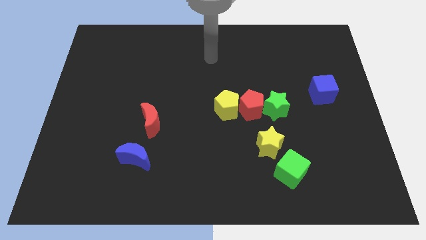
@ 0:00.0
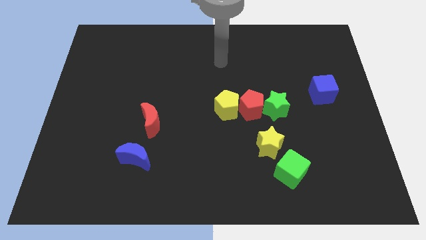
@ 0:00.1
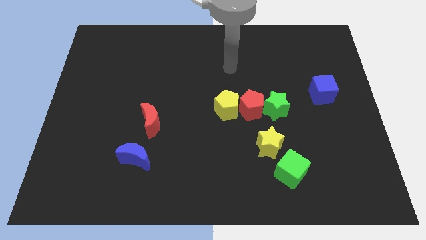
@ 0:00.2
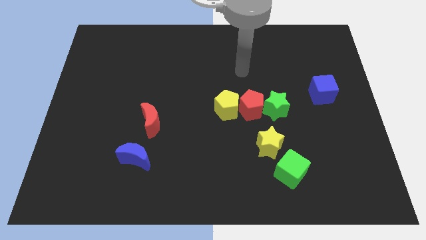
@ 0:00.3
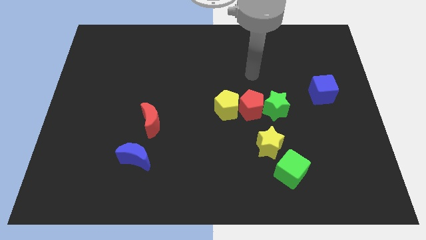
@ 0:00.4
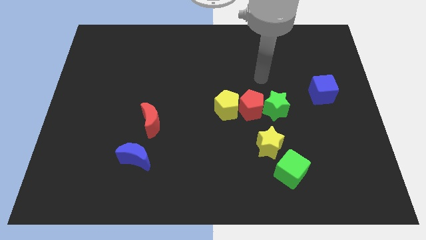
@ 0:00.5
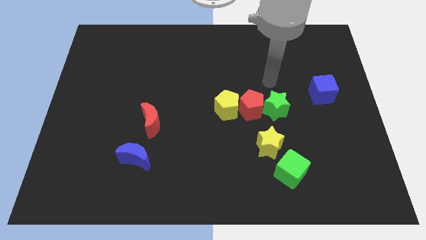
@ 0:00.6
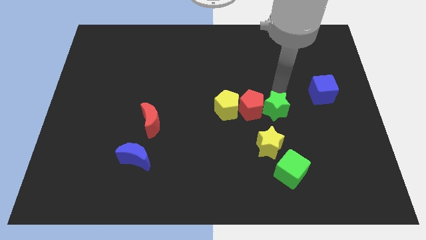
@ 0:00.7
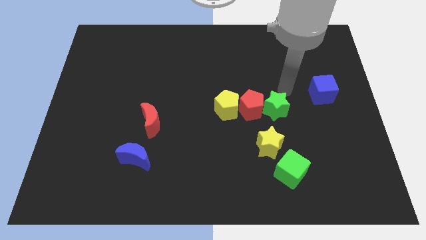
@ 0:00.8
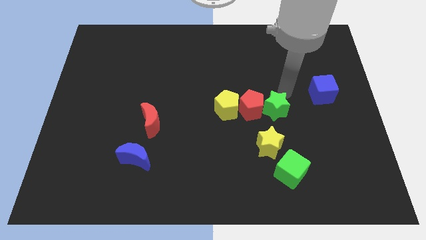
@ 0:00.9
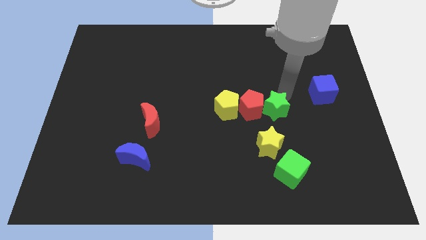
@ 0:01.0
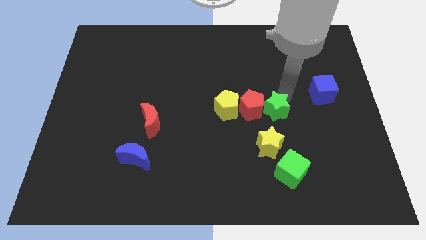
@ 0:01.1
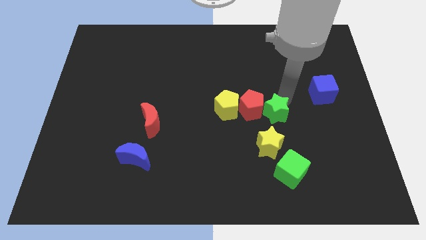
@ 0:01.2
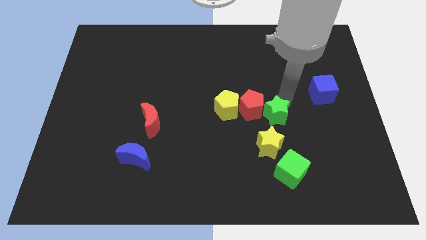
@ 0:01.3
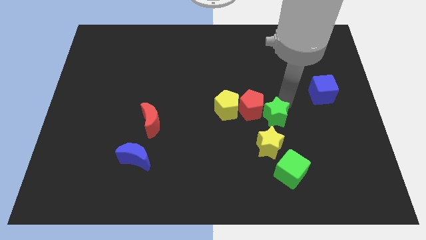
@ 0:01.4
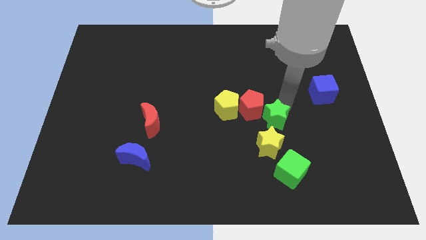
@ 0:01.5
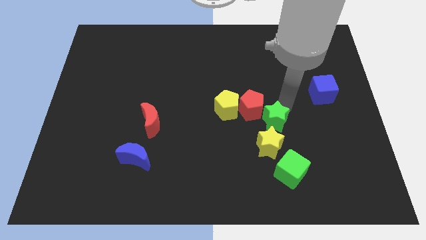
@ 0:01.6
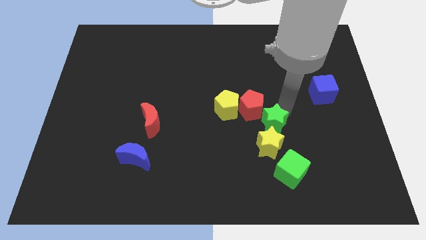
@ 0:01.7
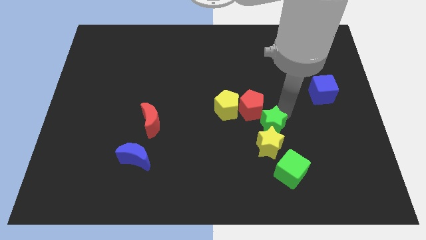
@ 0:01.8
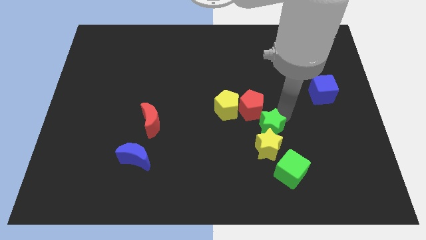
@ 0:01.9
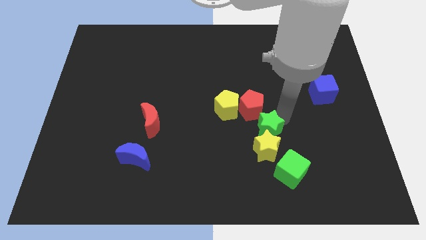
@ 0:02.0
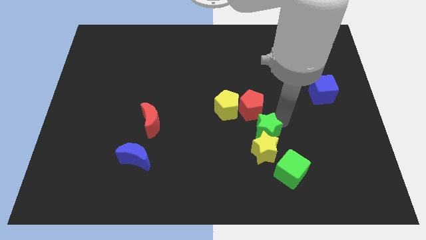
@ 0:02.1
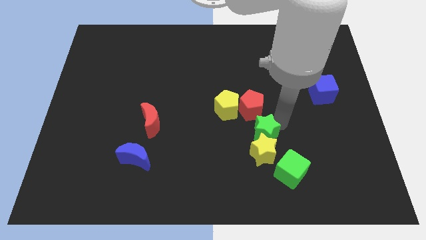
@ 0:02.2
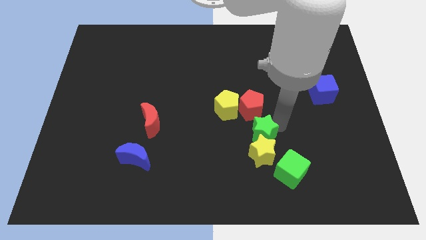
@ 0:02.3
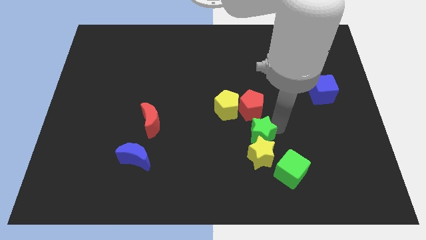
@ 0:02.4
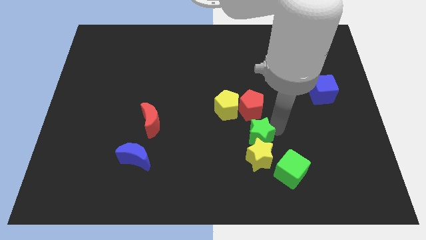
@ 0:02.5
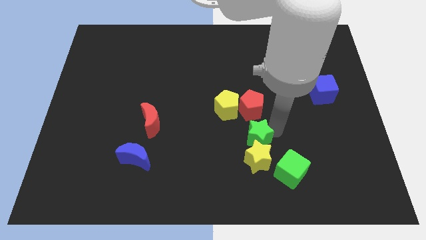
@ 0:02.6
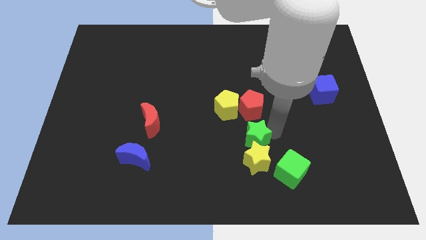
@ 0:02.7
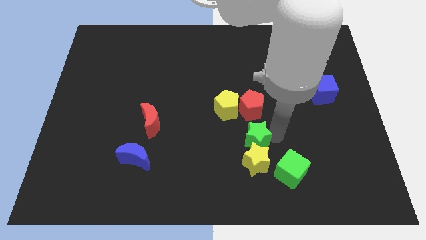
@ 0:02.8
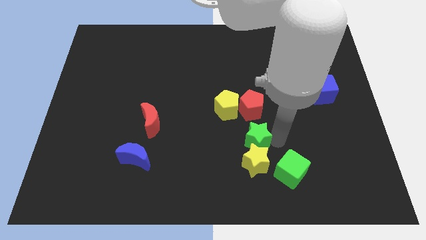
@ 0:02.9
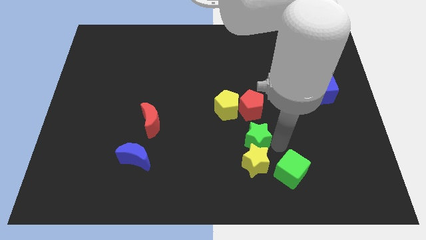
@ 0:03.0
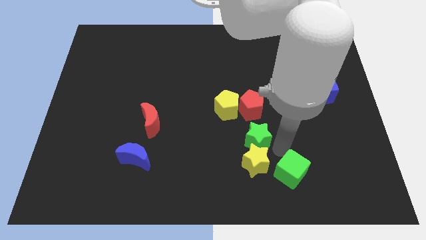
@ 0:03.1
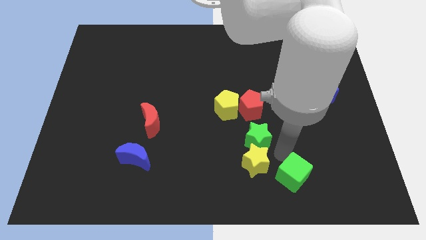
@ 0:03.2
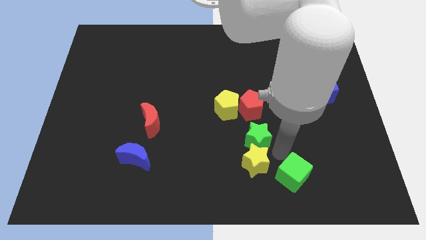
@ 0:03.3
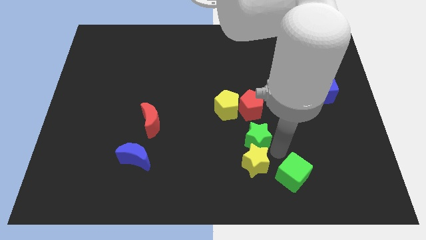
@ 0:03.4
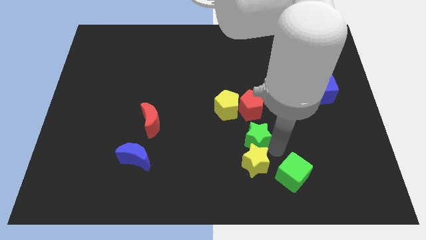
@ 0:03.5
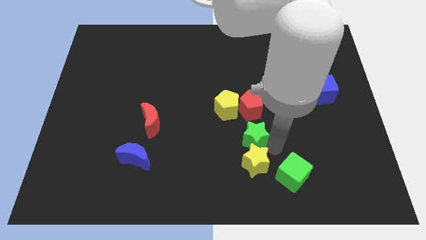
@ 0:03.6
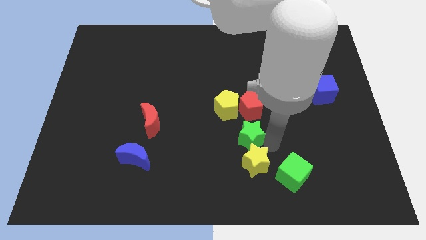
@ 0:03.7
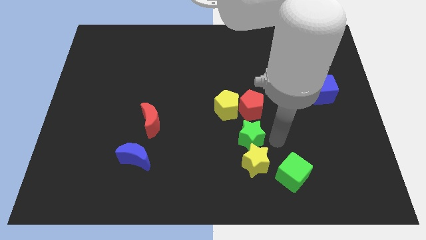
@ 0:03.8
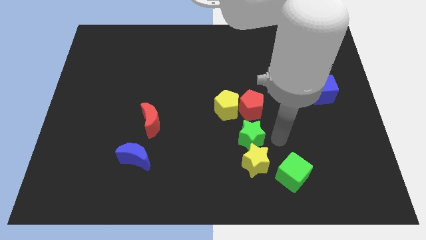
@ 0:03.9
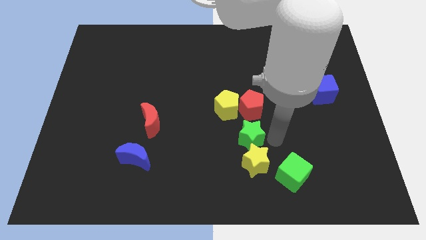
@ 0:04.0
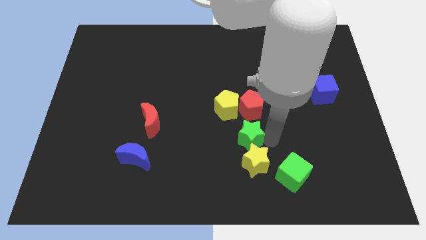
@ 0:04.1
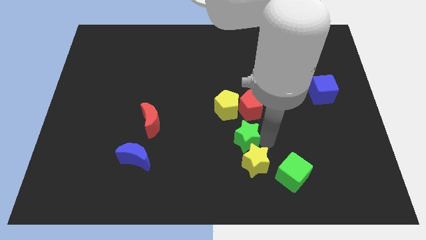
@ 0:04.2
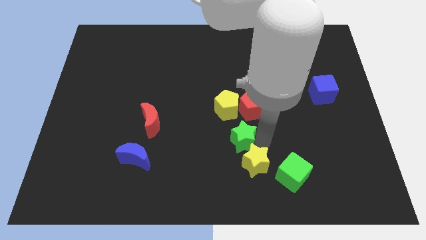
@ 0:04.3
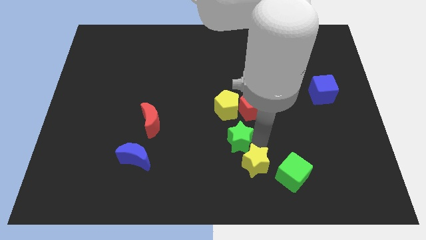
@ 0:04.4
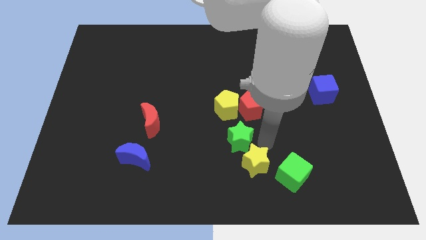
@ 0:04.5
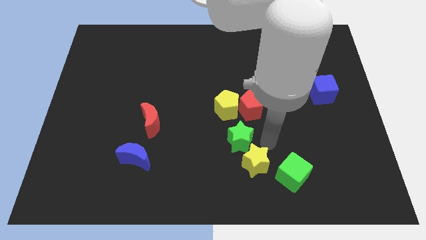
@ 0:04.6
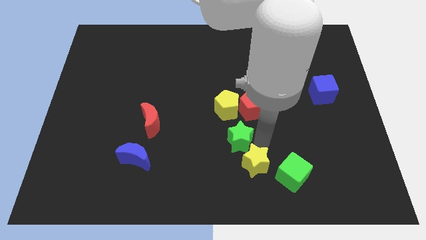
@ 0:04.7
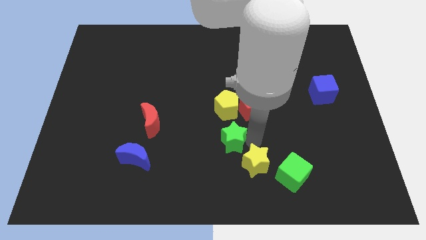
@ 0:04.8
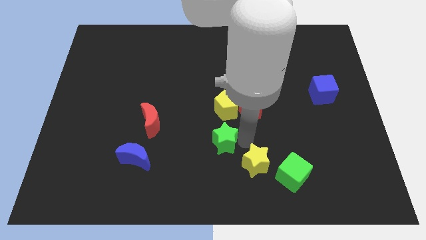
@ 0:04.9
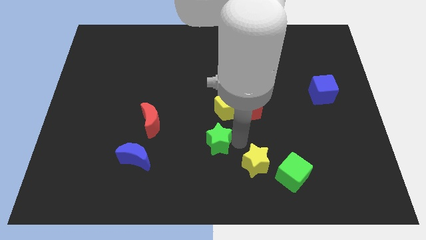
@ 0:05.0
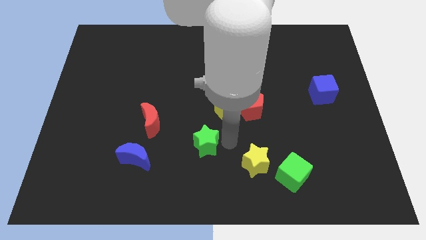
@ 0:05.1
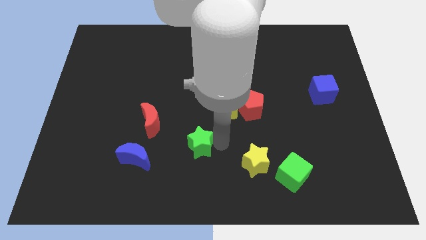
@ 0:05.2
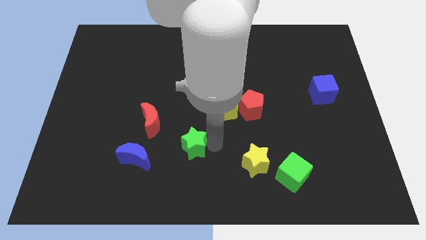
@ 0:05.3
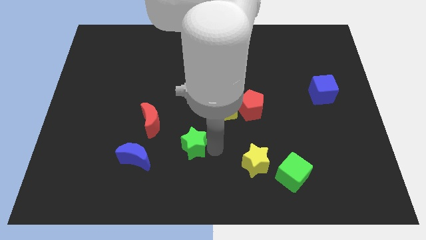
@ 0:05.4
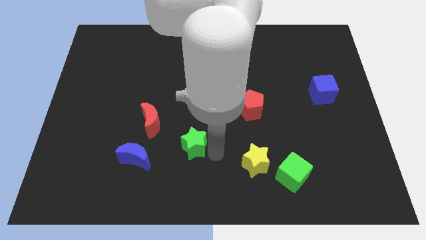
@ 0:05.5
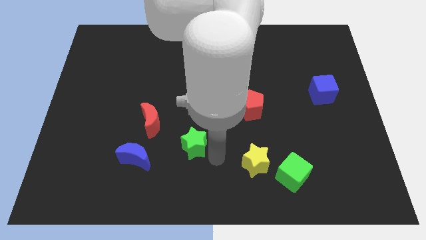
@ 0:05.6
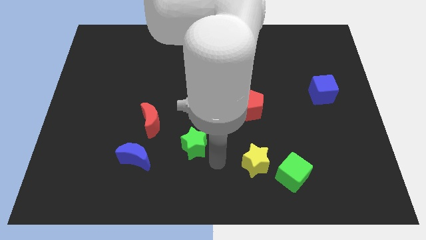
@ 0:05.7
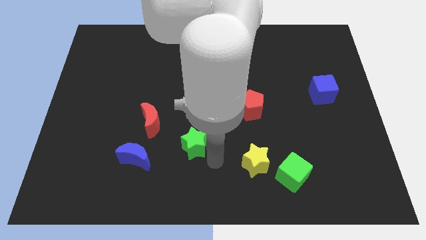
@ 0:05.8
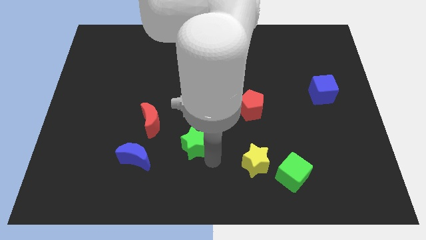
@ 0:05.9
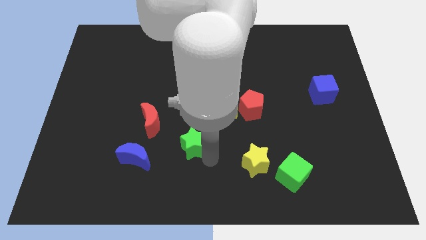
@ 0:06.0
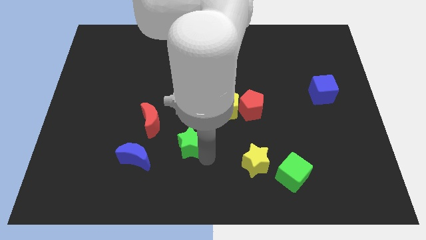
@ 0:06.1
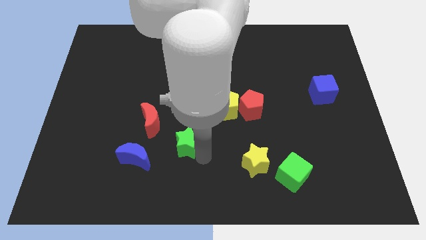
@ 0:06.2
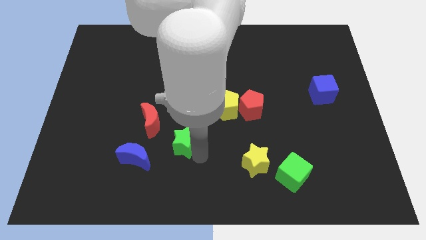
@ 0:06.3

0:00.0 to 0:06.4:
push the green star to the top right side of the blue moon

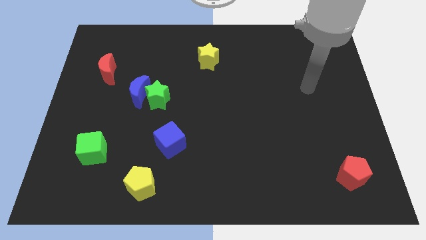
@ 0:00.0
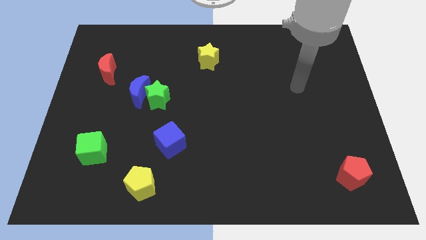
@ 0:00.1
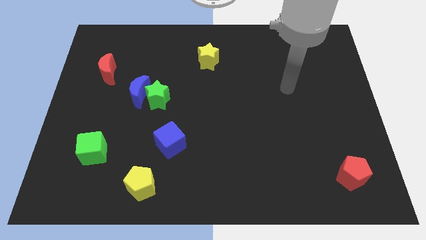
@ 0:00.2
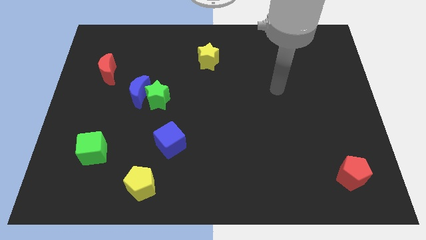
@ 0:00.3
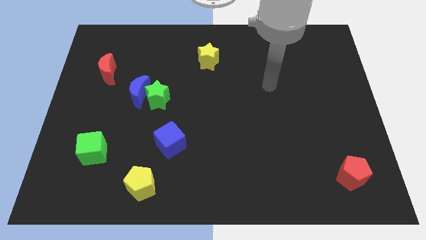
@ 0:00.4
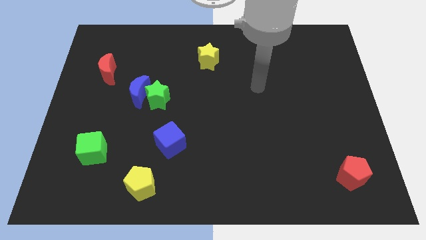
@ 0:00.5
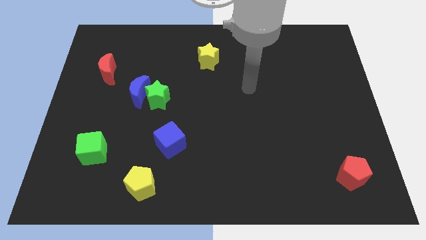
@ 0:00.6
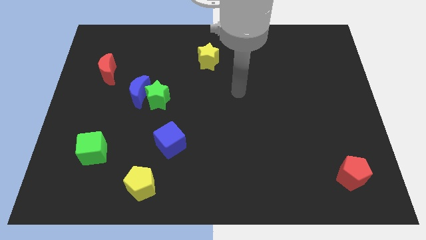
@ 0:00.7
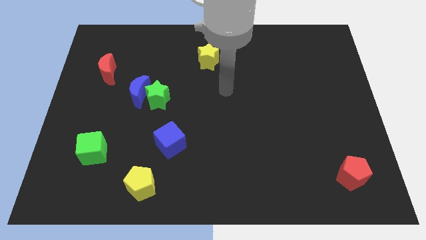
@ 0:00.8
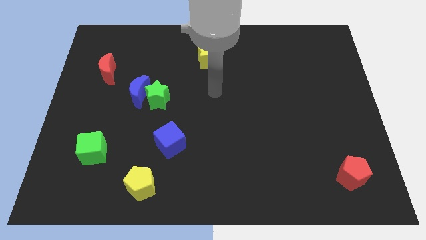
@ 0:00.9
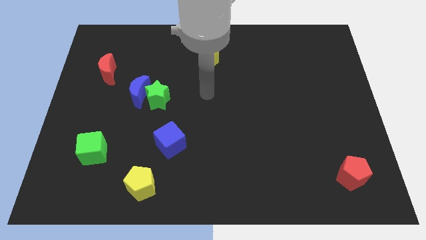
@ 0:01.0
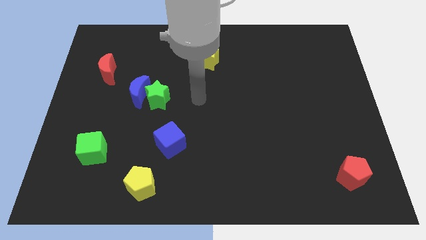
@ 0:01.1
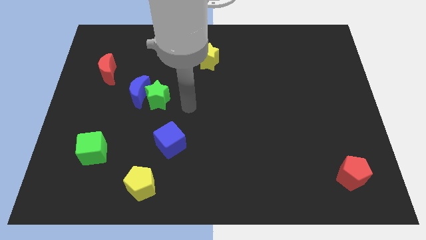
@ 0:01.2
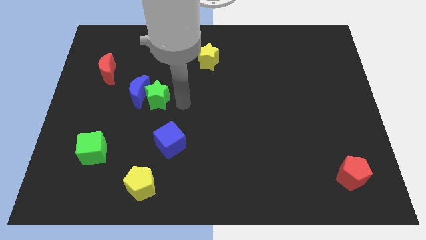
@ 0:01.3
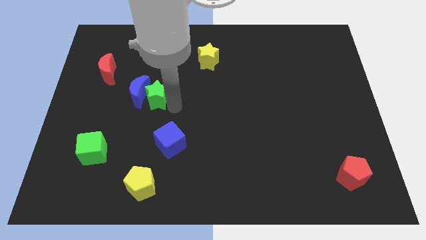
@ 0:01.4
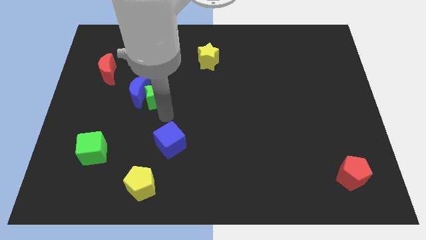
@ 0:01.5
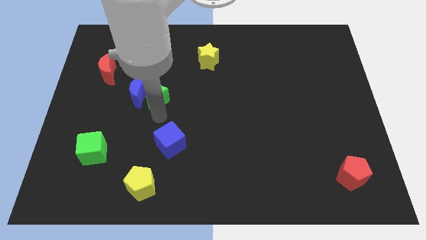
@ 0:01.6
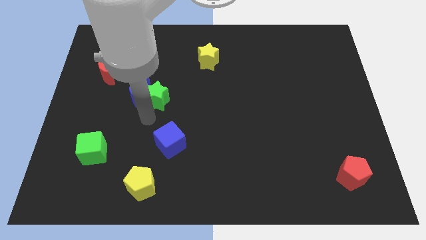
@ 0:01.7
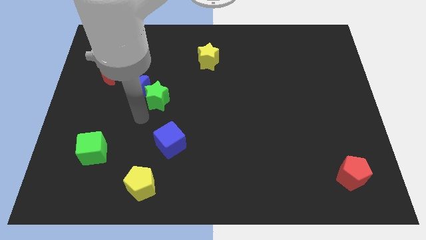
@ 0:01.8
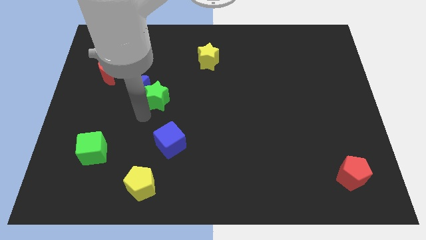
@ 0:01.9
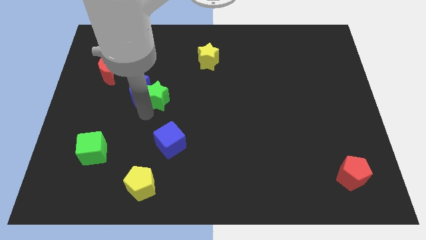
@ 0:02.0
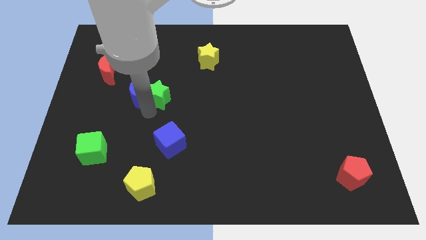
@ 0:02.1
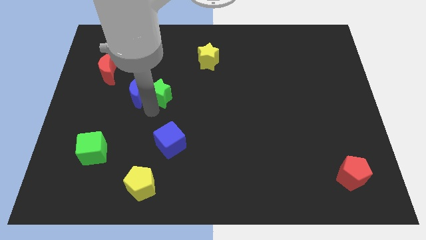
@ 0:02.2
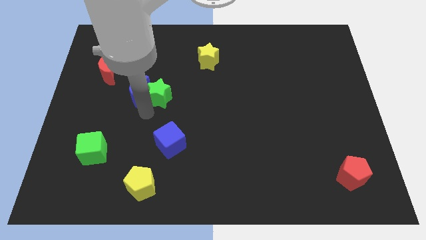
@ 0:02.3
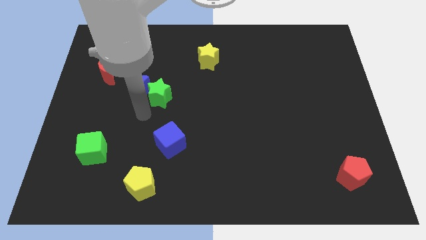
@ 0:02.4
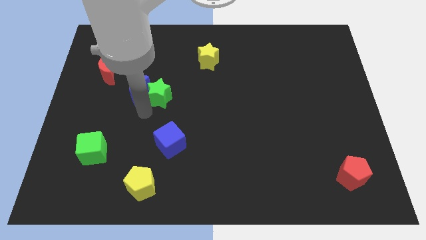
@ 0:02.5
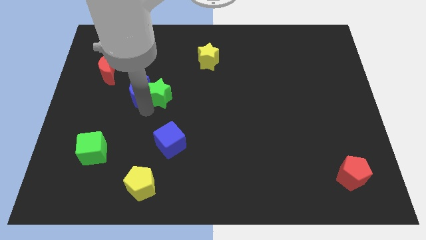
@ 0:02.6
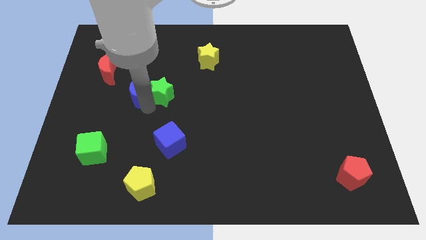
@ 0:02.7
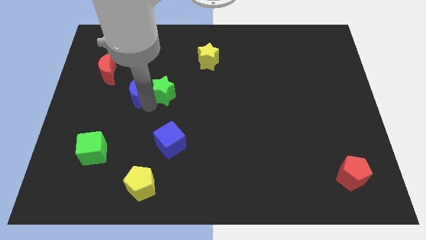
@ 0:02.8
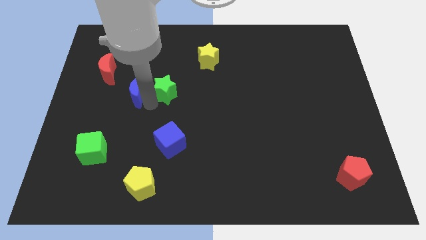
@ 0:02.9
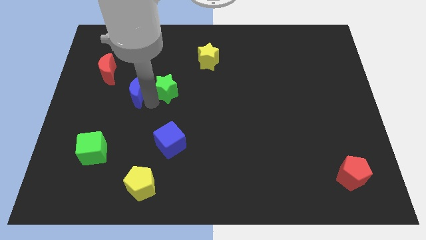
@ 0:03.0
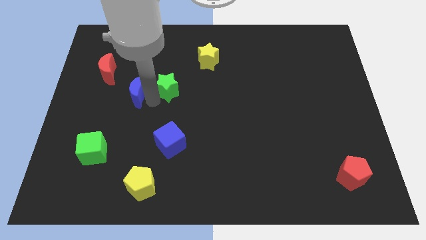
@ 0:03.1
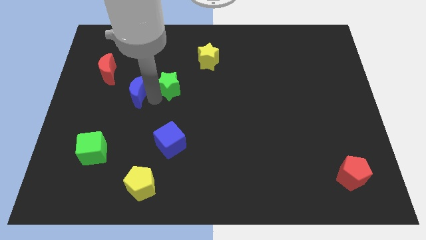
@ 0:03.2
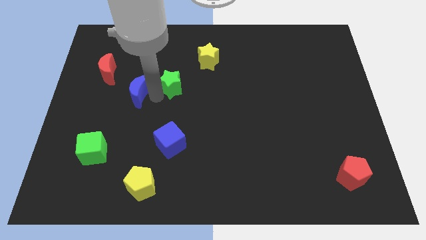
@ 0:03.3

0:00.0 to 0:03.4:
slide the green star to the bottom left of the yellow star
